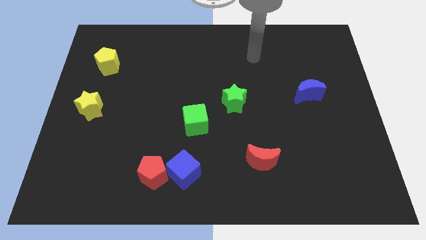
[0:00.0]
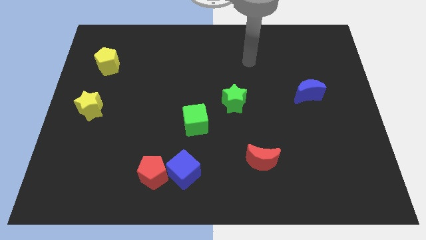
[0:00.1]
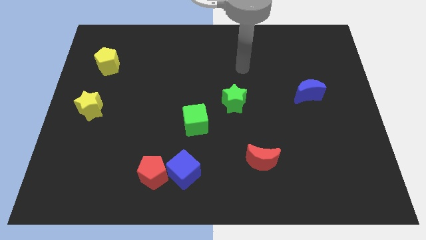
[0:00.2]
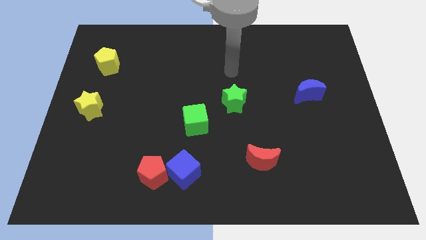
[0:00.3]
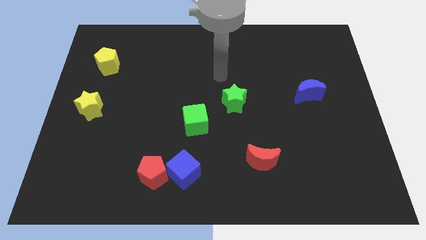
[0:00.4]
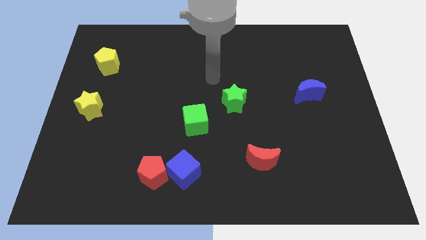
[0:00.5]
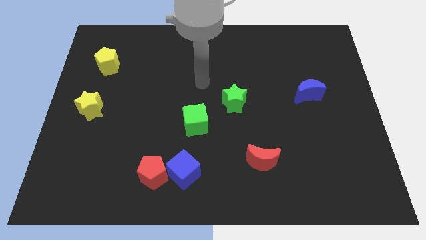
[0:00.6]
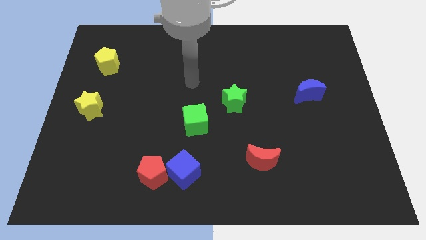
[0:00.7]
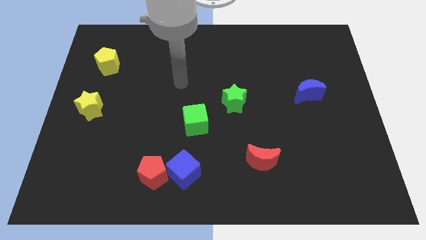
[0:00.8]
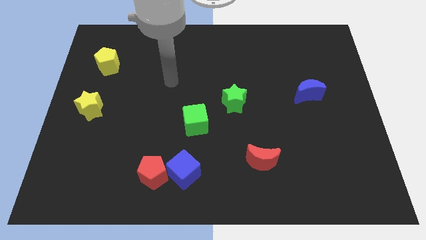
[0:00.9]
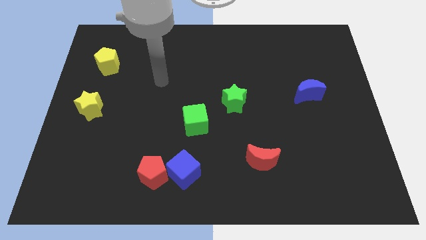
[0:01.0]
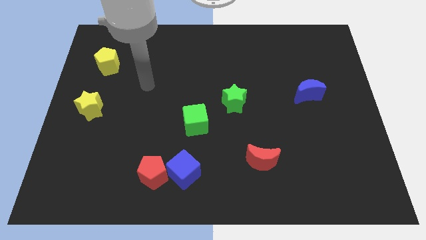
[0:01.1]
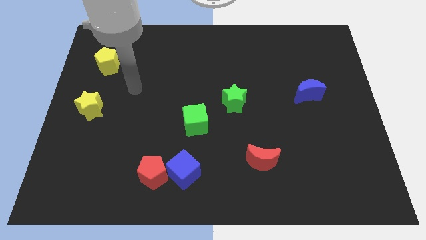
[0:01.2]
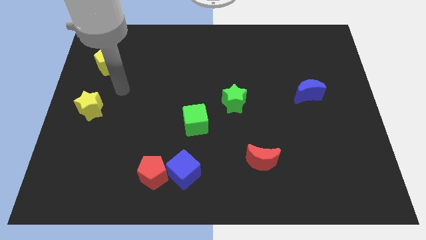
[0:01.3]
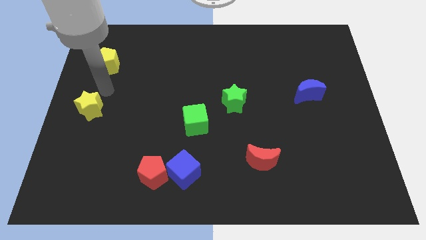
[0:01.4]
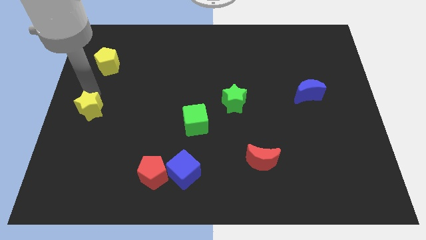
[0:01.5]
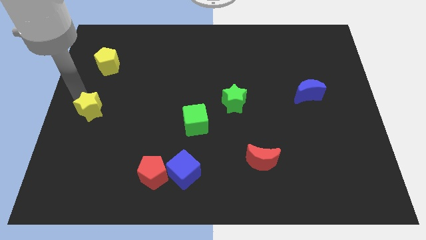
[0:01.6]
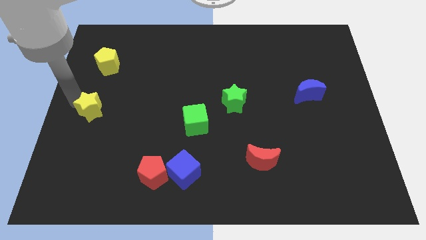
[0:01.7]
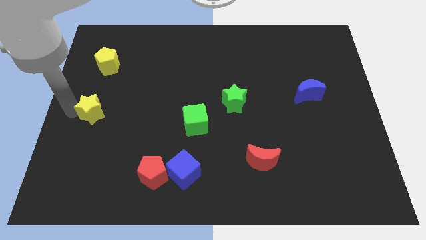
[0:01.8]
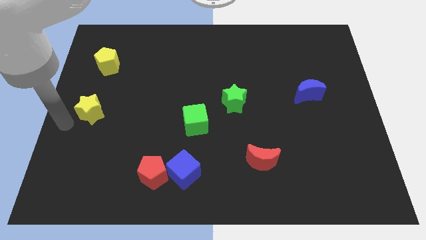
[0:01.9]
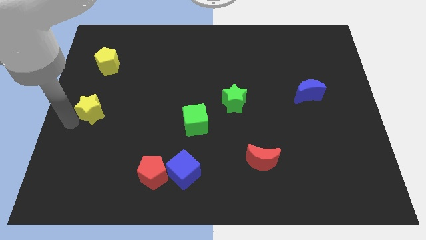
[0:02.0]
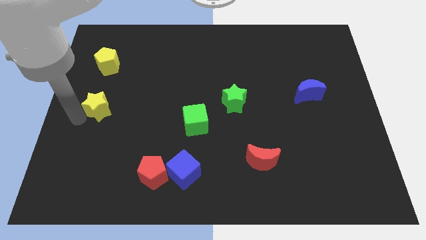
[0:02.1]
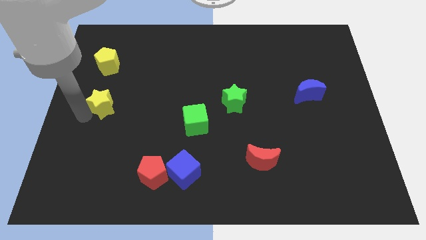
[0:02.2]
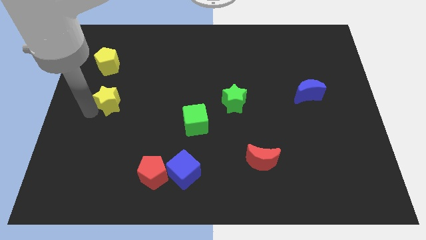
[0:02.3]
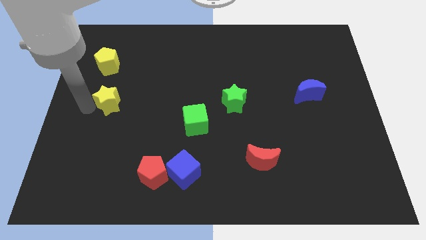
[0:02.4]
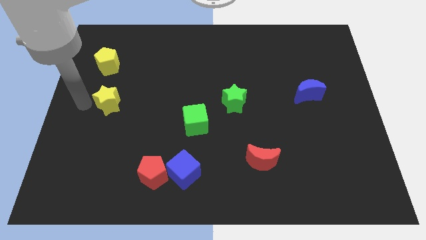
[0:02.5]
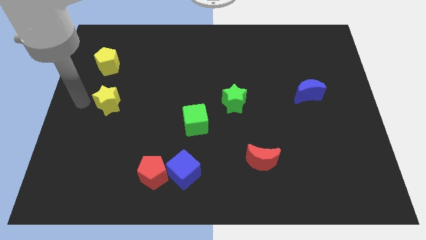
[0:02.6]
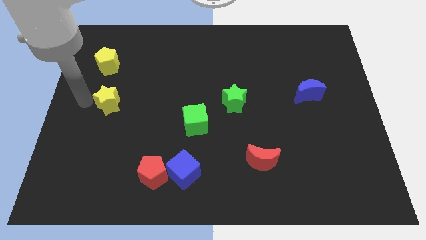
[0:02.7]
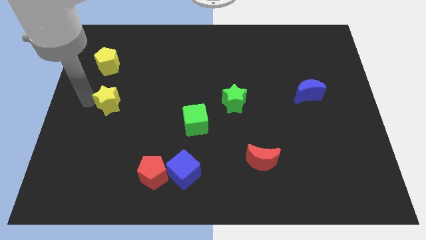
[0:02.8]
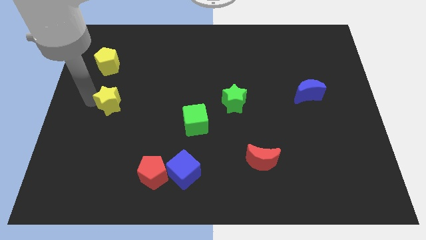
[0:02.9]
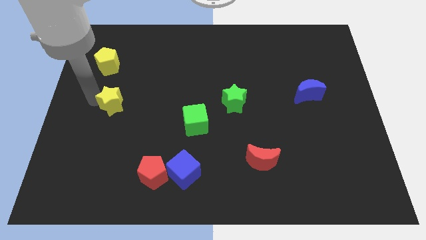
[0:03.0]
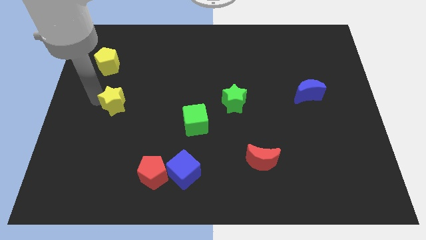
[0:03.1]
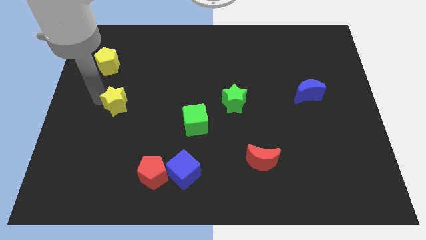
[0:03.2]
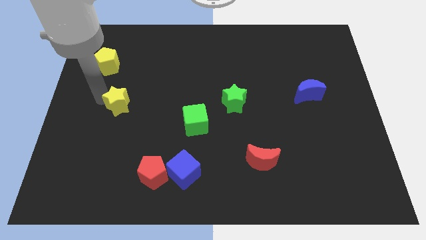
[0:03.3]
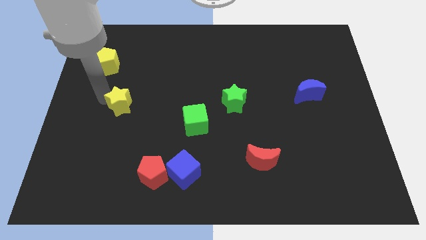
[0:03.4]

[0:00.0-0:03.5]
slide the yellow star a bit to the right

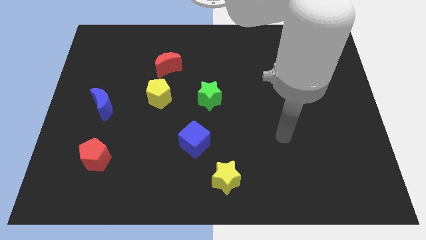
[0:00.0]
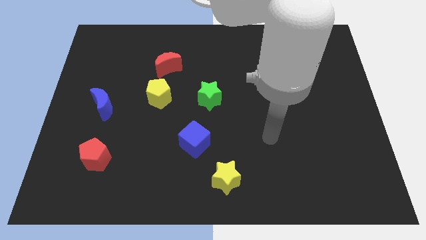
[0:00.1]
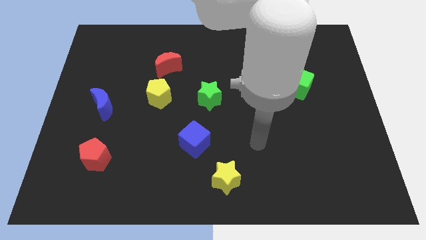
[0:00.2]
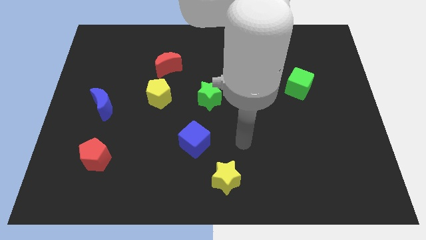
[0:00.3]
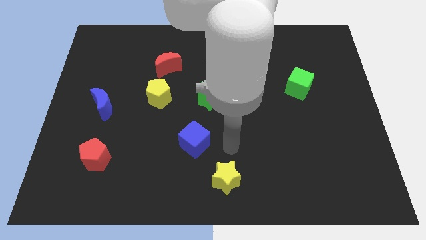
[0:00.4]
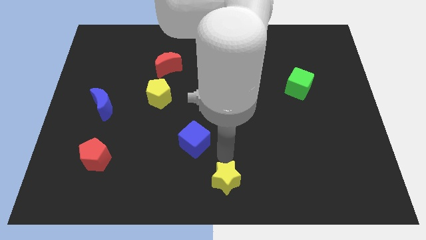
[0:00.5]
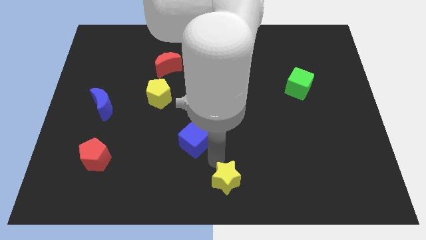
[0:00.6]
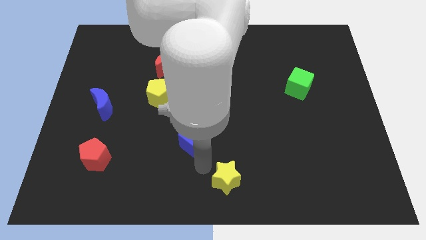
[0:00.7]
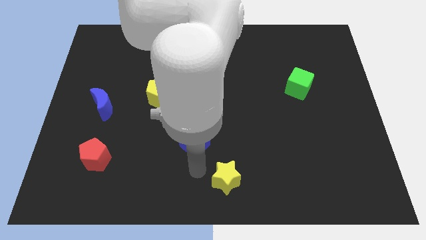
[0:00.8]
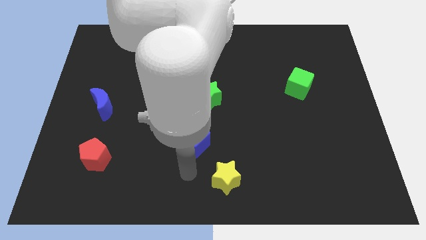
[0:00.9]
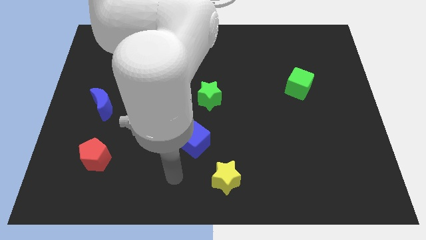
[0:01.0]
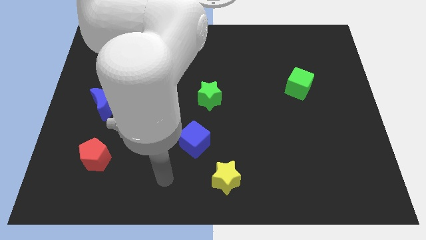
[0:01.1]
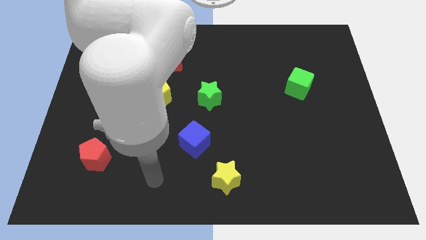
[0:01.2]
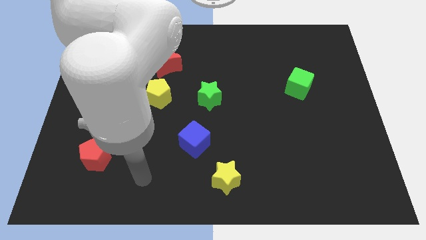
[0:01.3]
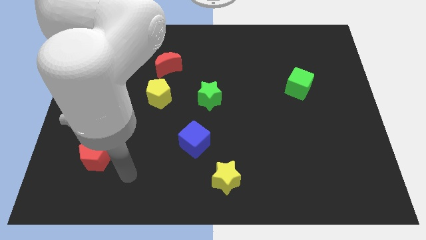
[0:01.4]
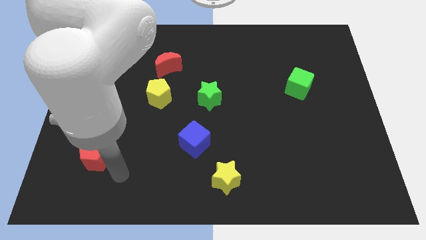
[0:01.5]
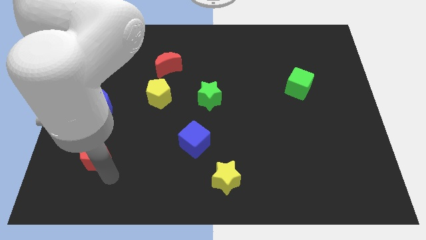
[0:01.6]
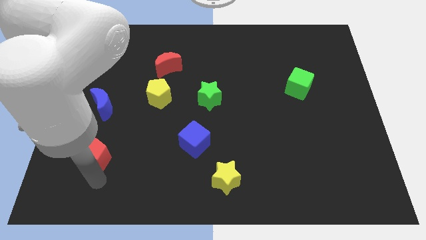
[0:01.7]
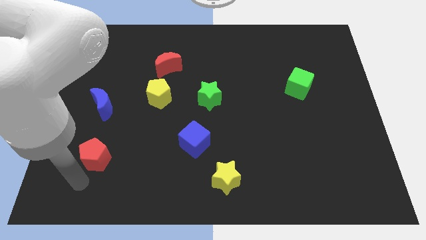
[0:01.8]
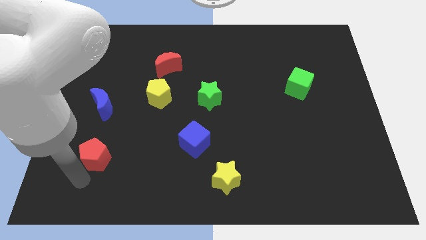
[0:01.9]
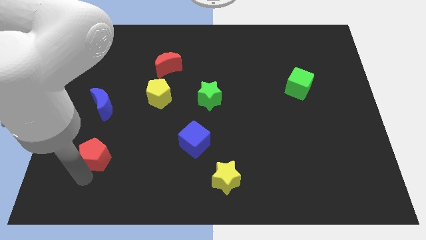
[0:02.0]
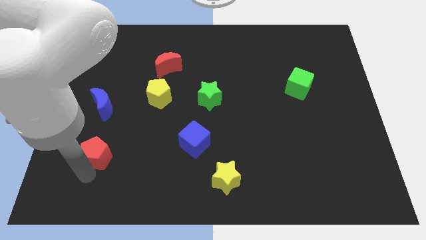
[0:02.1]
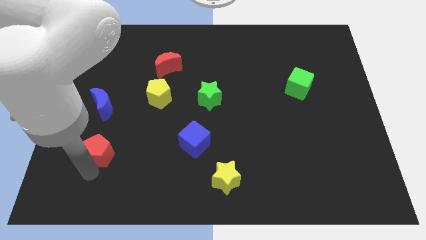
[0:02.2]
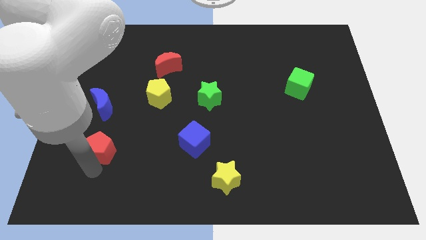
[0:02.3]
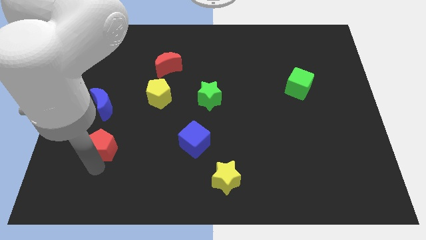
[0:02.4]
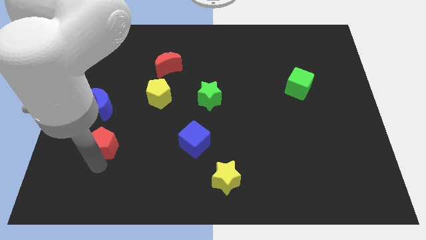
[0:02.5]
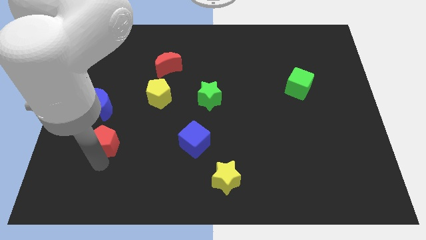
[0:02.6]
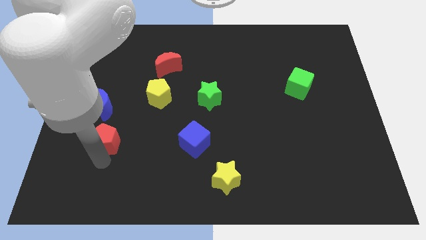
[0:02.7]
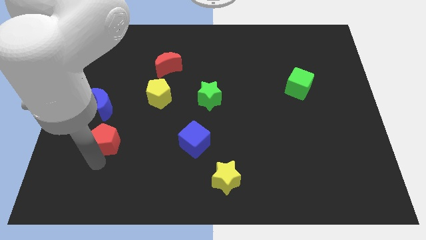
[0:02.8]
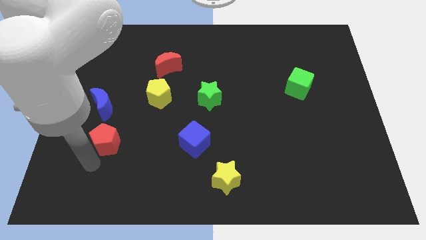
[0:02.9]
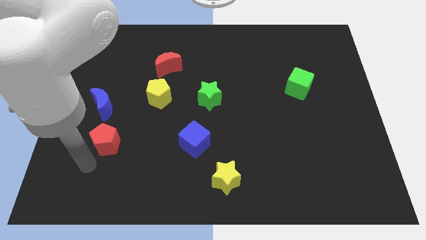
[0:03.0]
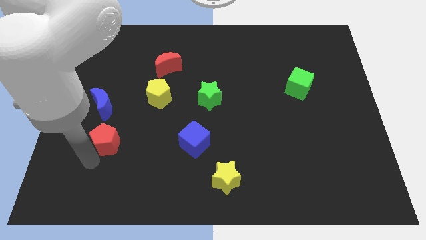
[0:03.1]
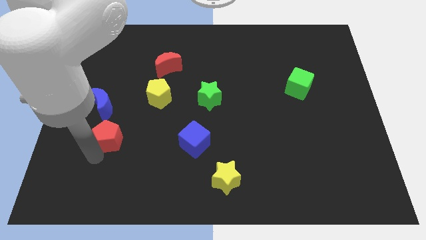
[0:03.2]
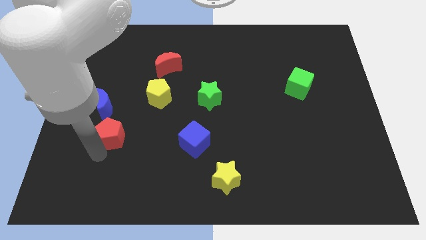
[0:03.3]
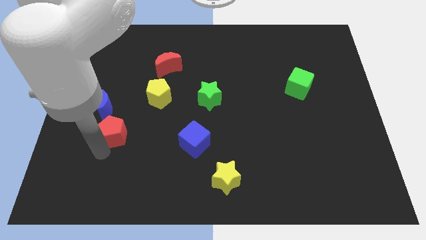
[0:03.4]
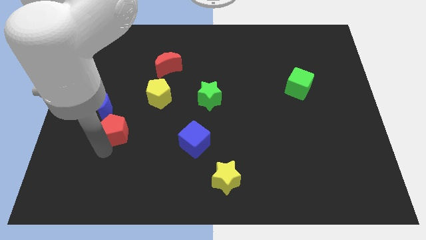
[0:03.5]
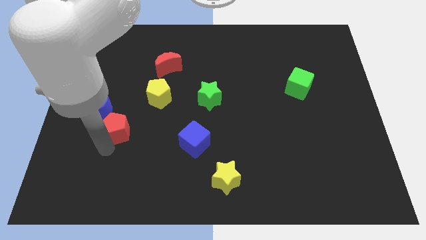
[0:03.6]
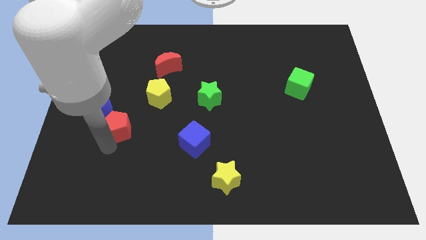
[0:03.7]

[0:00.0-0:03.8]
push the red pentagon up a bit

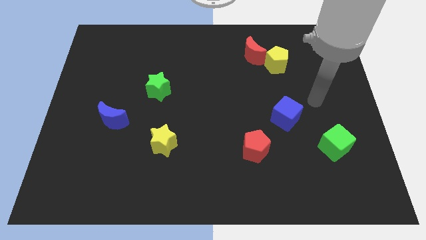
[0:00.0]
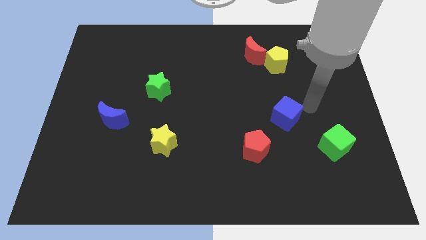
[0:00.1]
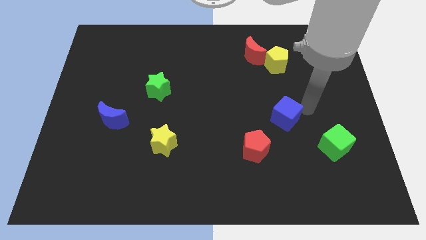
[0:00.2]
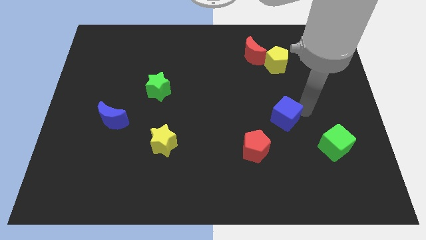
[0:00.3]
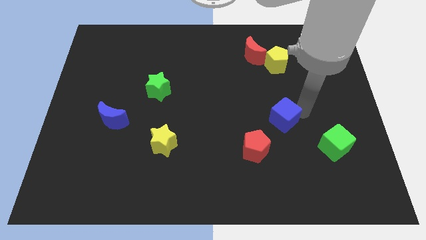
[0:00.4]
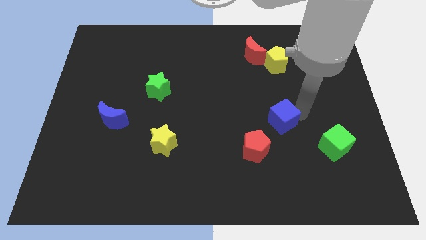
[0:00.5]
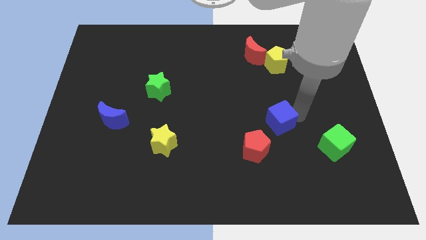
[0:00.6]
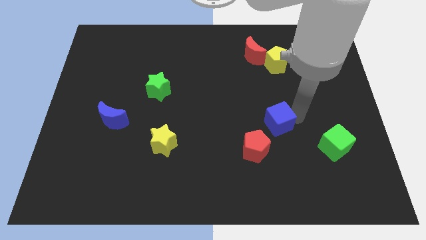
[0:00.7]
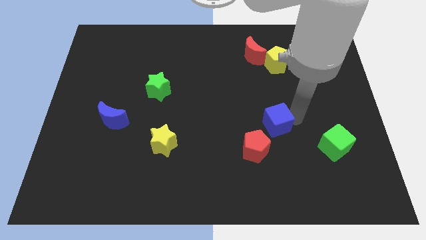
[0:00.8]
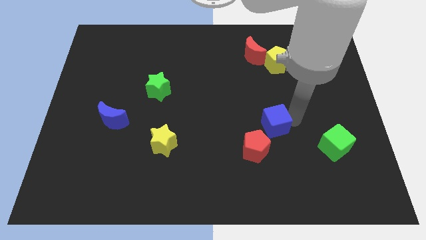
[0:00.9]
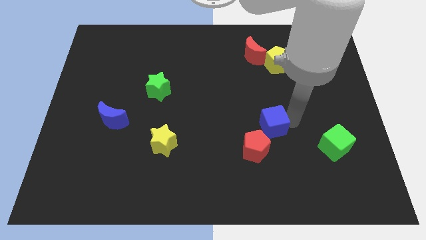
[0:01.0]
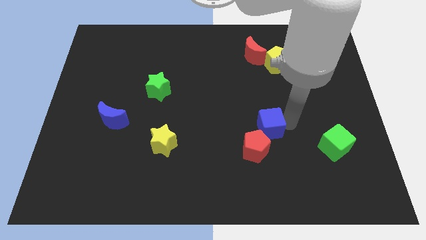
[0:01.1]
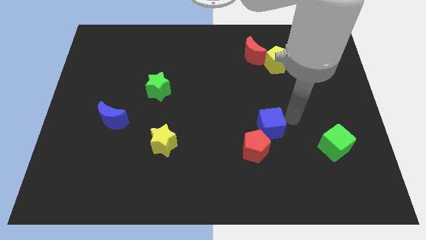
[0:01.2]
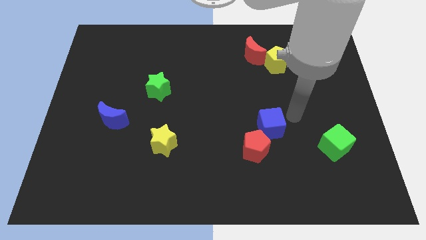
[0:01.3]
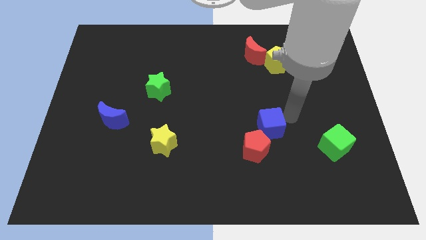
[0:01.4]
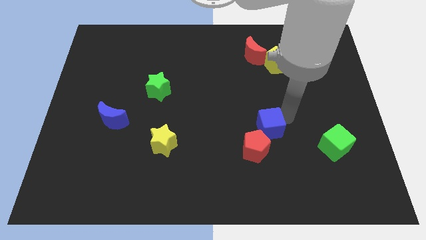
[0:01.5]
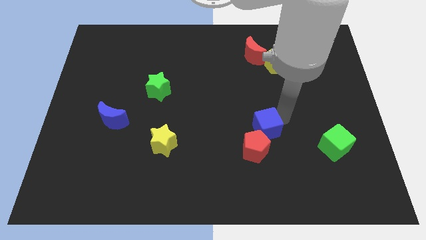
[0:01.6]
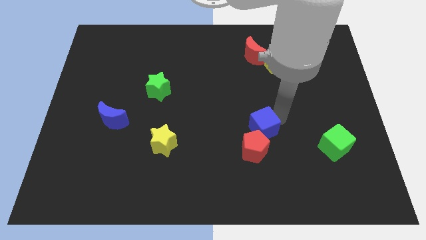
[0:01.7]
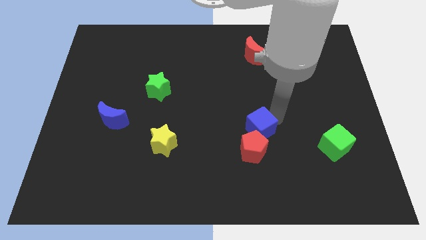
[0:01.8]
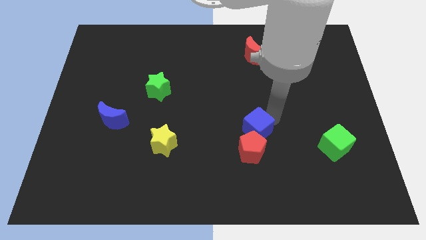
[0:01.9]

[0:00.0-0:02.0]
slightly push the blue cube down and to the left
